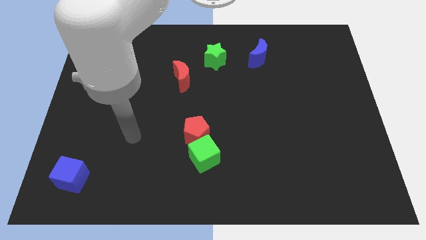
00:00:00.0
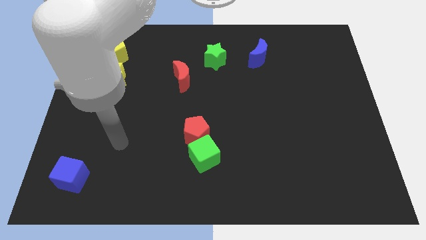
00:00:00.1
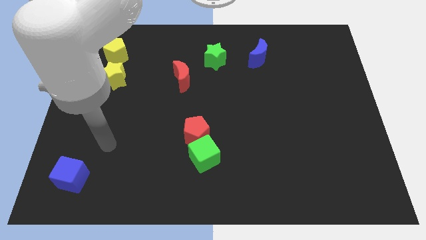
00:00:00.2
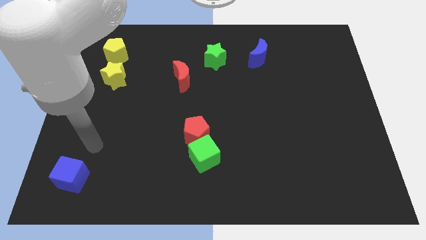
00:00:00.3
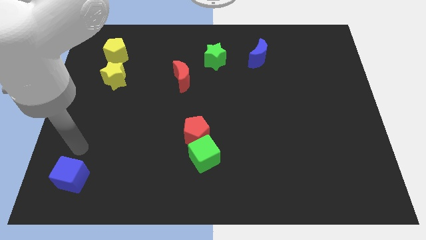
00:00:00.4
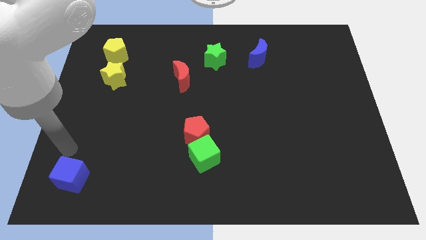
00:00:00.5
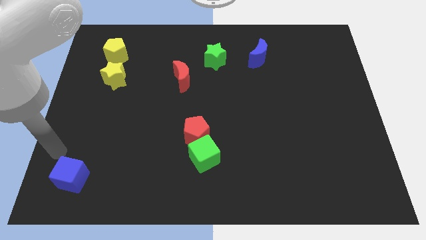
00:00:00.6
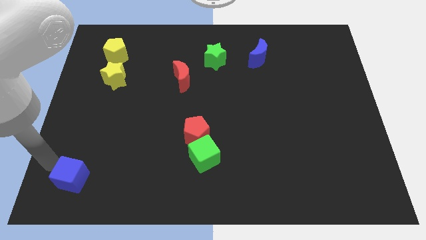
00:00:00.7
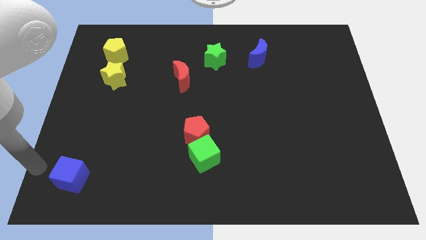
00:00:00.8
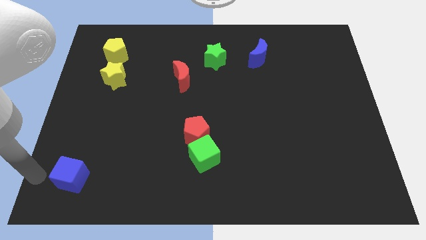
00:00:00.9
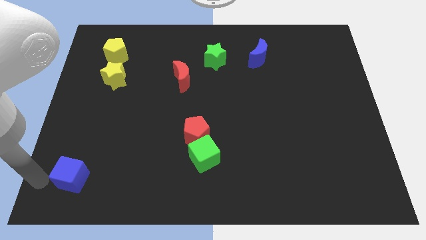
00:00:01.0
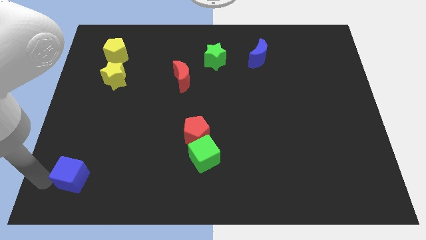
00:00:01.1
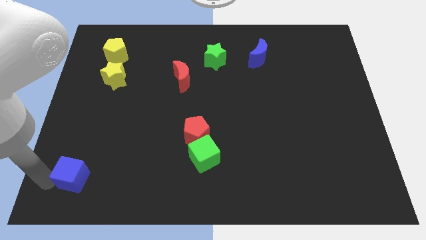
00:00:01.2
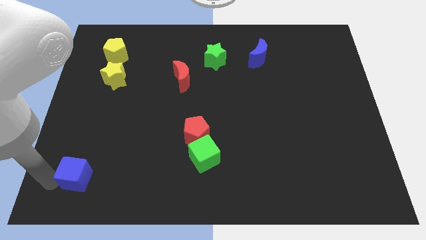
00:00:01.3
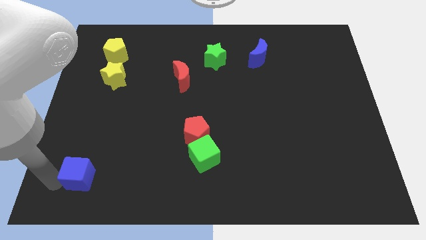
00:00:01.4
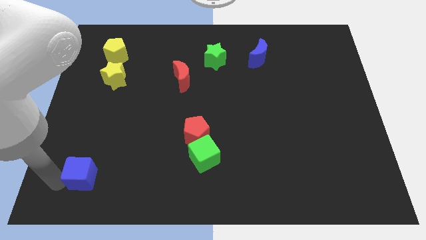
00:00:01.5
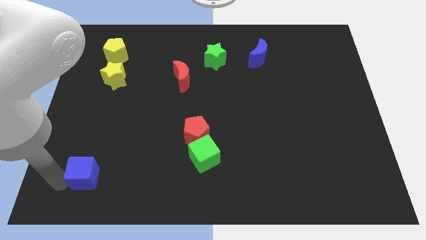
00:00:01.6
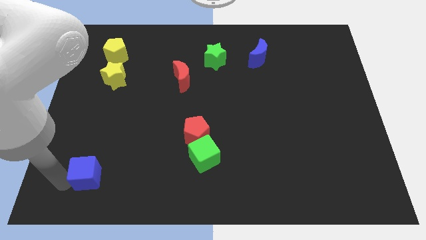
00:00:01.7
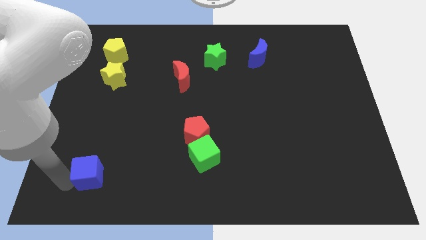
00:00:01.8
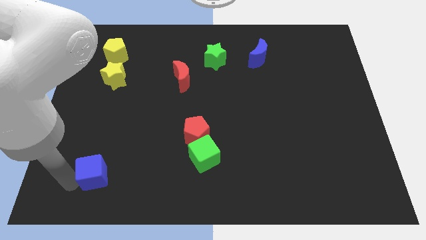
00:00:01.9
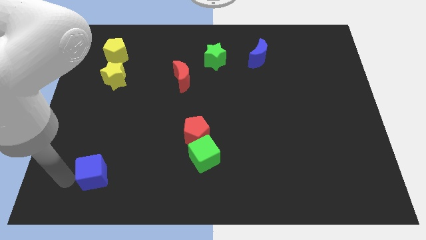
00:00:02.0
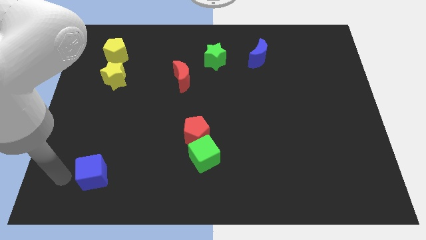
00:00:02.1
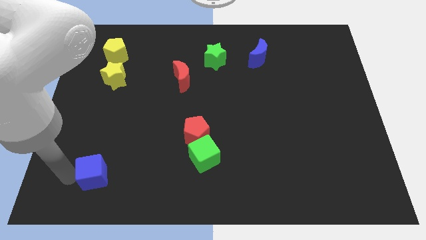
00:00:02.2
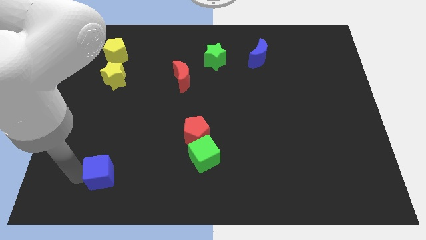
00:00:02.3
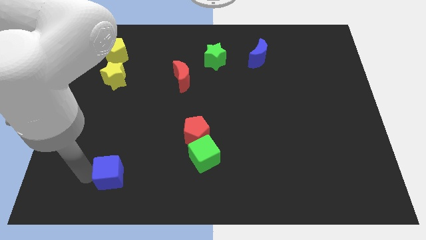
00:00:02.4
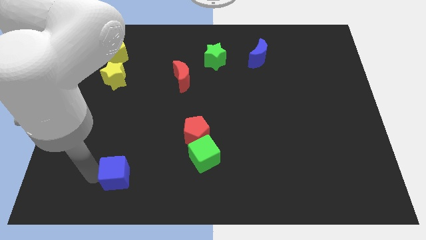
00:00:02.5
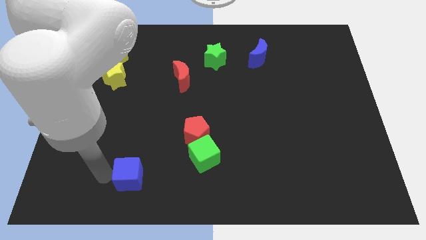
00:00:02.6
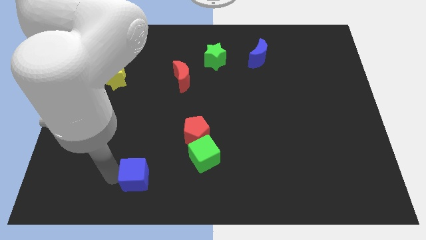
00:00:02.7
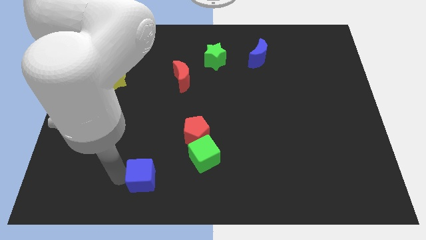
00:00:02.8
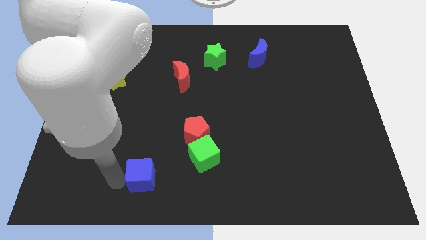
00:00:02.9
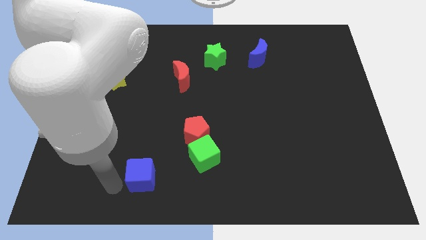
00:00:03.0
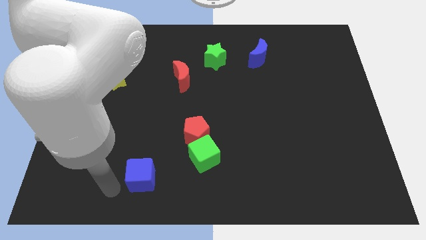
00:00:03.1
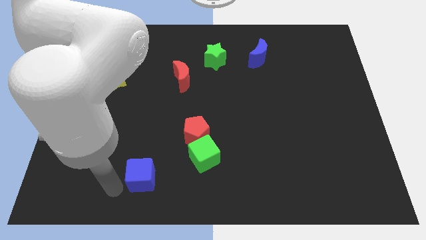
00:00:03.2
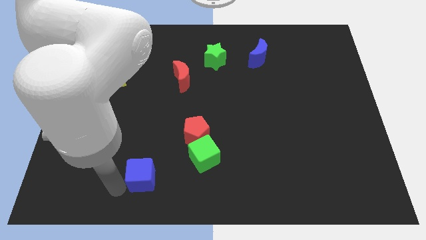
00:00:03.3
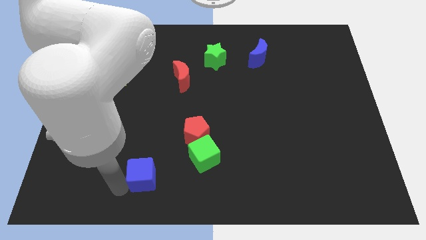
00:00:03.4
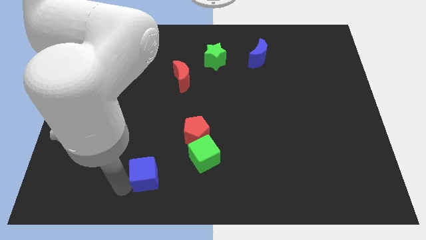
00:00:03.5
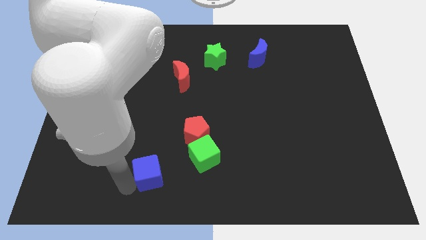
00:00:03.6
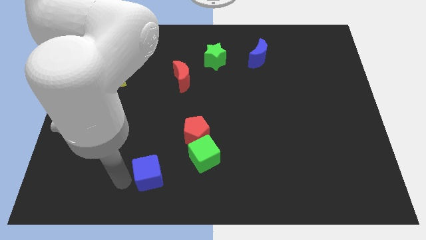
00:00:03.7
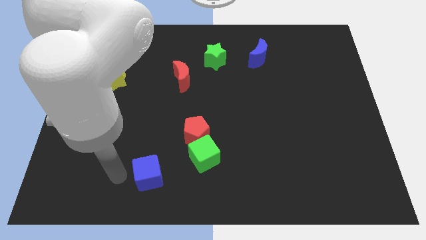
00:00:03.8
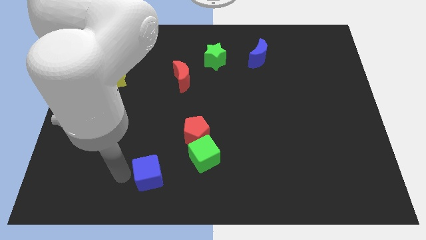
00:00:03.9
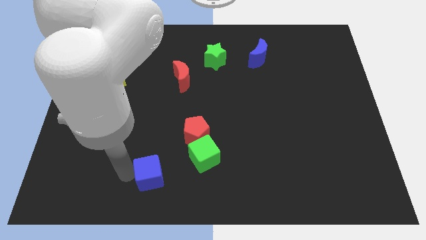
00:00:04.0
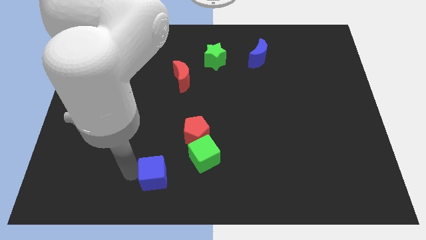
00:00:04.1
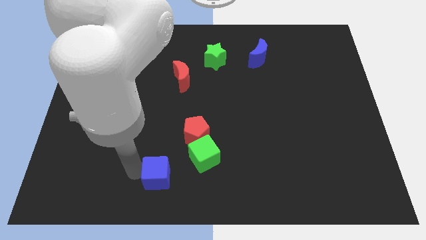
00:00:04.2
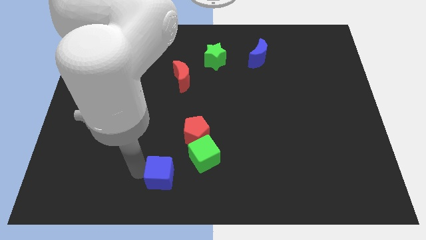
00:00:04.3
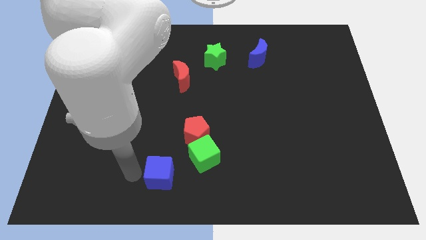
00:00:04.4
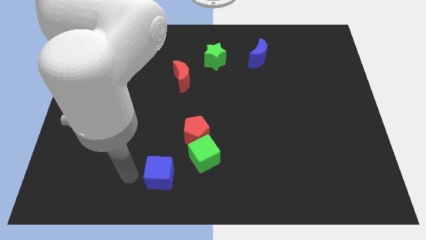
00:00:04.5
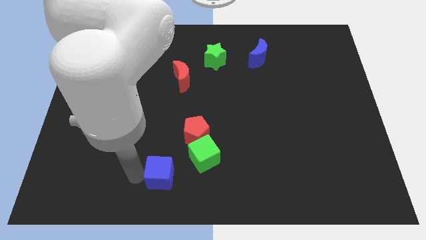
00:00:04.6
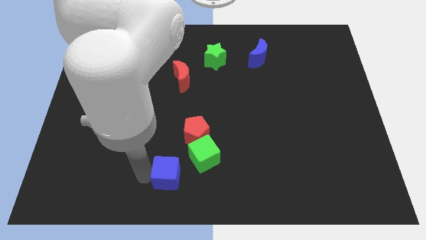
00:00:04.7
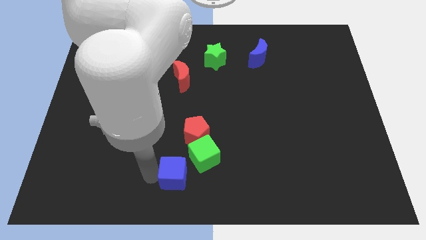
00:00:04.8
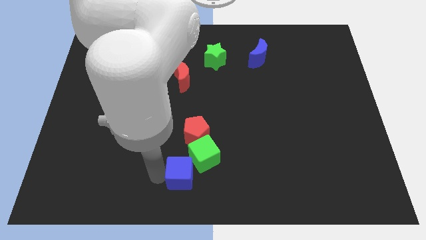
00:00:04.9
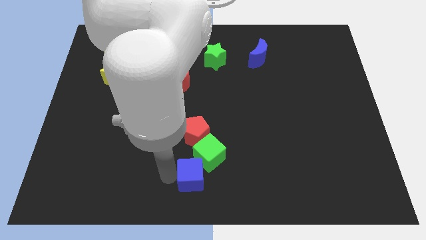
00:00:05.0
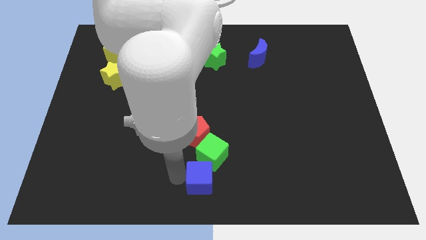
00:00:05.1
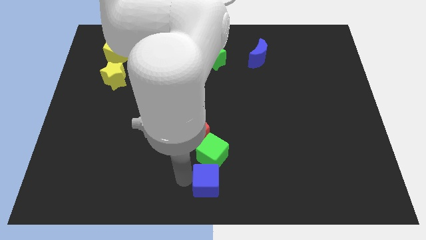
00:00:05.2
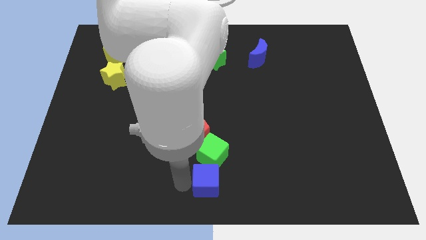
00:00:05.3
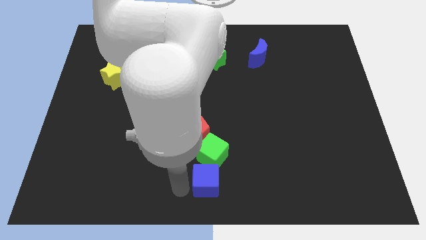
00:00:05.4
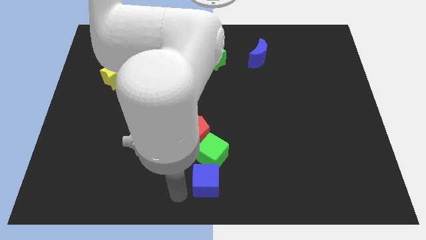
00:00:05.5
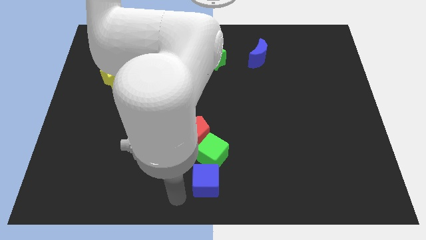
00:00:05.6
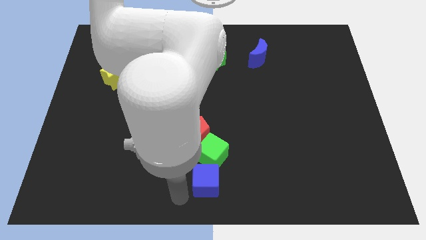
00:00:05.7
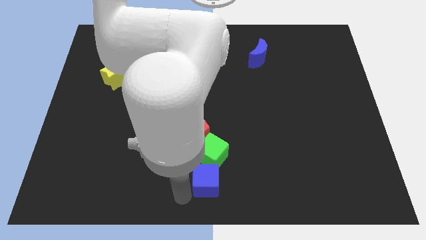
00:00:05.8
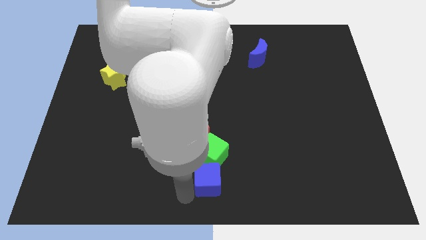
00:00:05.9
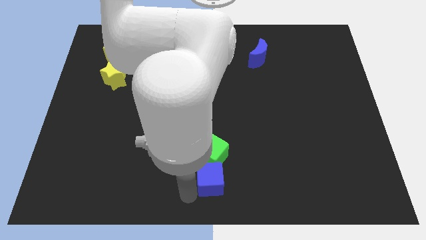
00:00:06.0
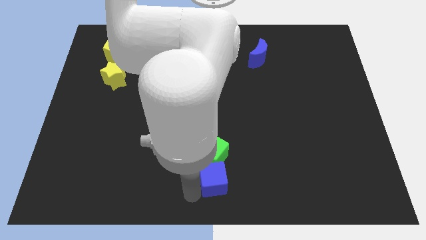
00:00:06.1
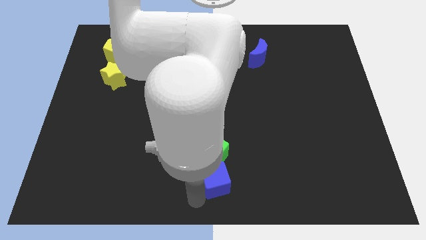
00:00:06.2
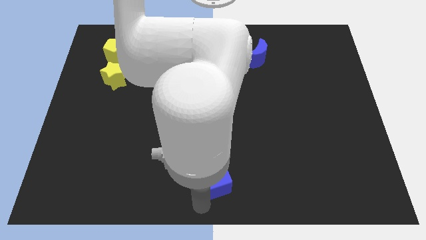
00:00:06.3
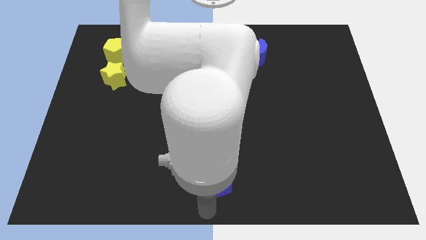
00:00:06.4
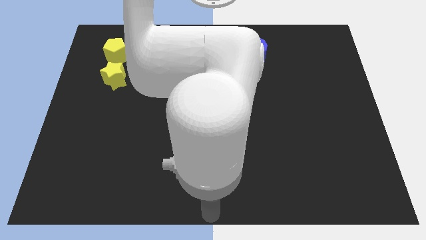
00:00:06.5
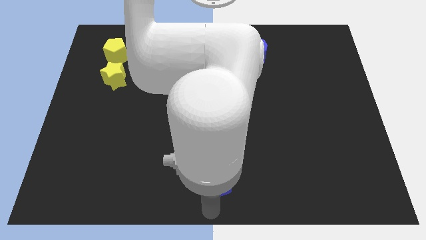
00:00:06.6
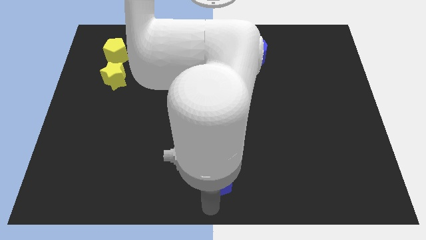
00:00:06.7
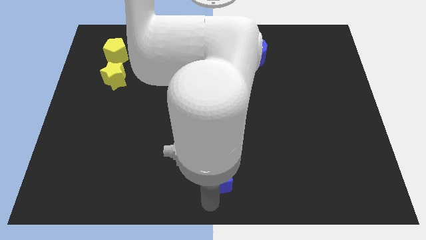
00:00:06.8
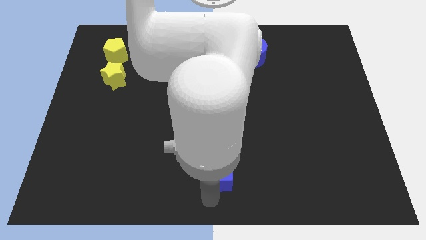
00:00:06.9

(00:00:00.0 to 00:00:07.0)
slide the blue cube to the bottom right of the red pentagon

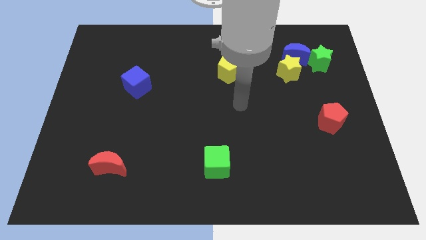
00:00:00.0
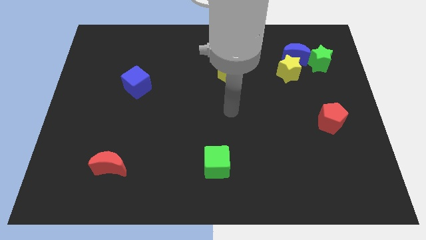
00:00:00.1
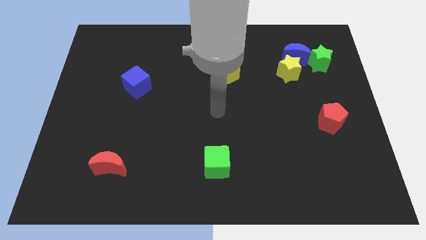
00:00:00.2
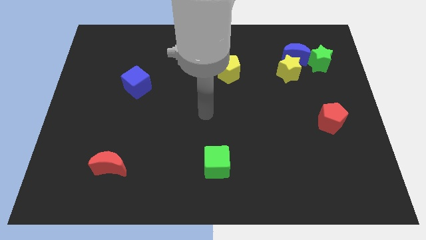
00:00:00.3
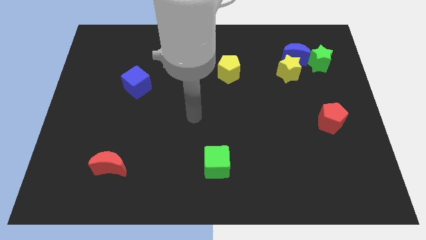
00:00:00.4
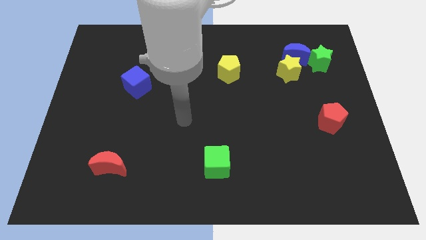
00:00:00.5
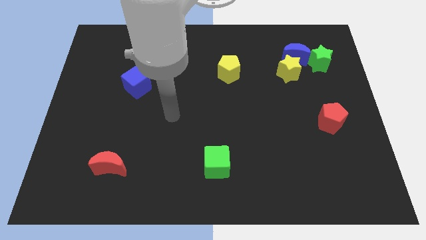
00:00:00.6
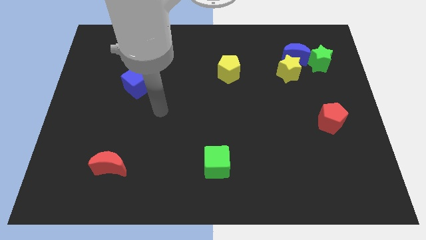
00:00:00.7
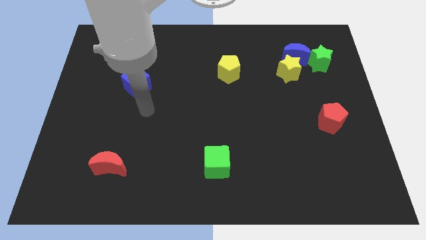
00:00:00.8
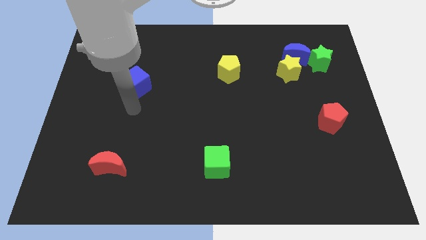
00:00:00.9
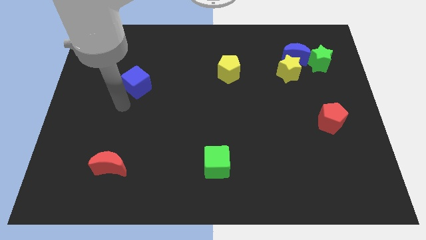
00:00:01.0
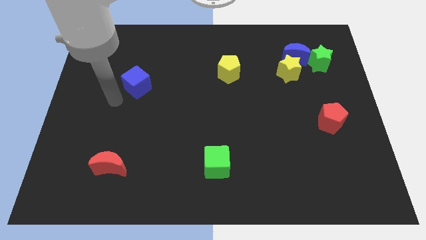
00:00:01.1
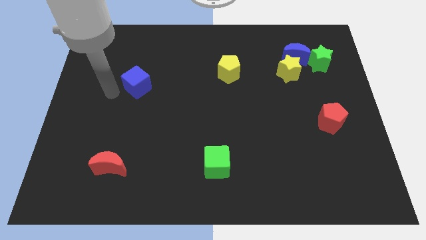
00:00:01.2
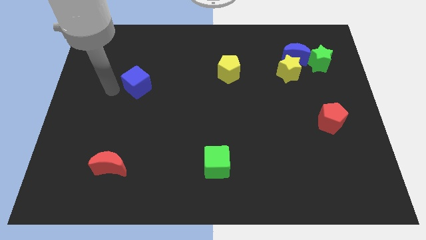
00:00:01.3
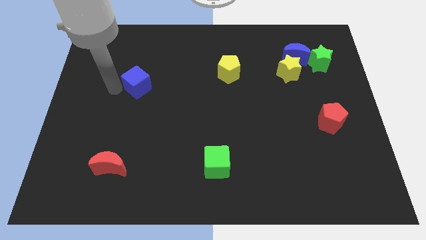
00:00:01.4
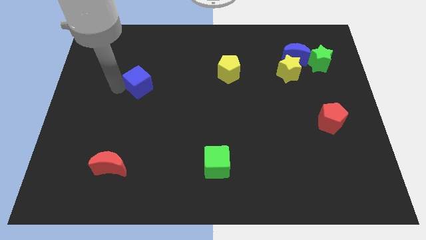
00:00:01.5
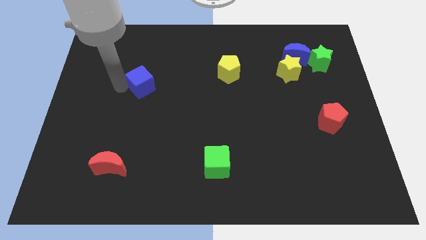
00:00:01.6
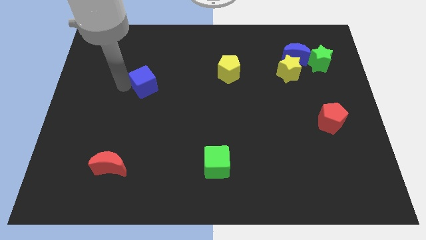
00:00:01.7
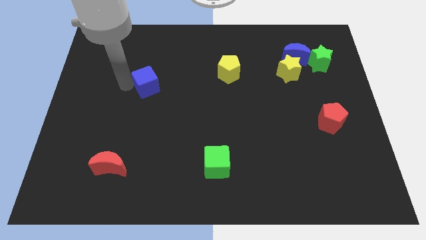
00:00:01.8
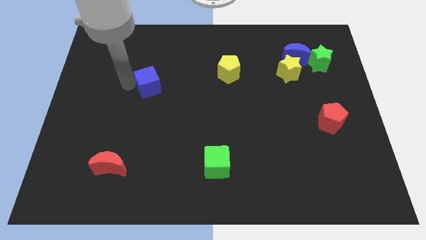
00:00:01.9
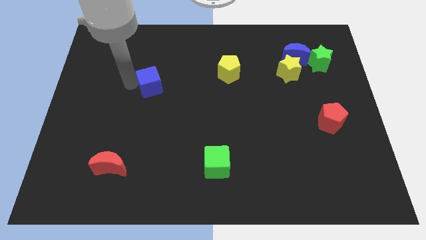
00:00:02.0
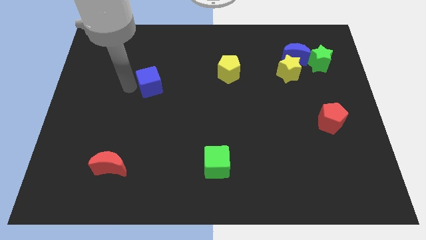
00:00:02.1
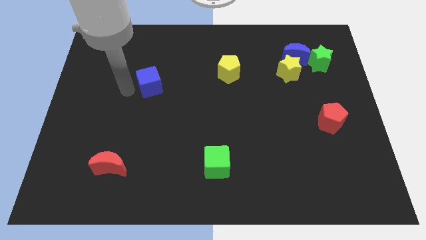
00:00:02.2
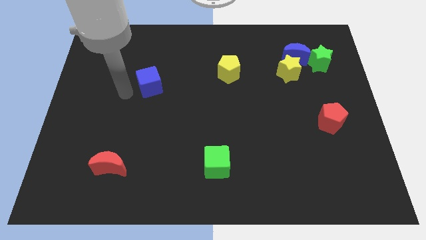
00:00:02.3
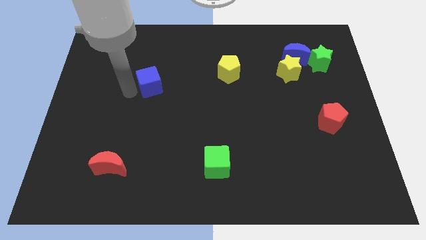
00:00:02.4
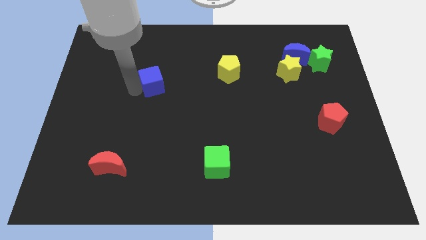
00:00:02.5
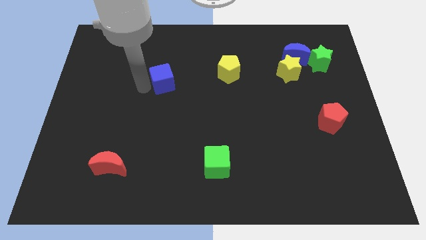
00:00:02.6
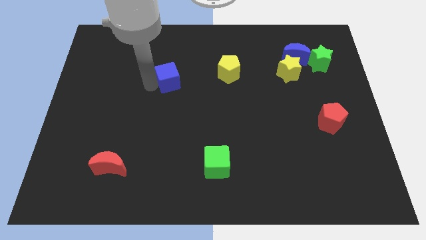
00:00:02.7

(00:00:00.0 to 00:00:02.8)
put the blue cube to the left side of the yellow pentagon
